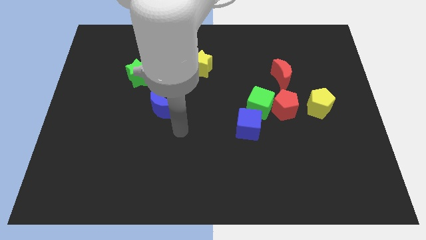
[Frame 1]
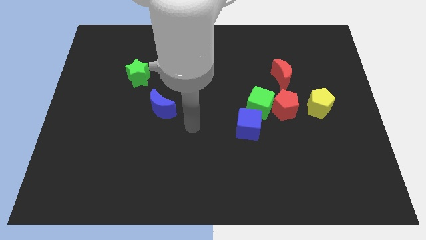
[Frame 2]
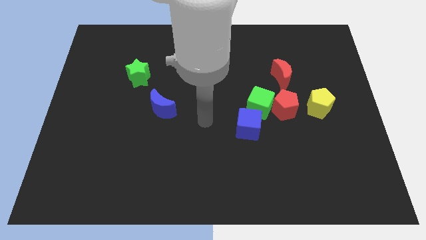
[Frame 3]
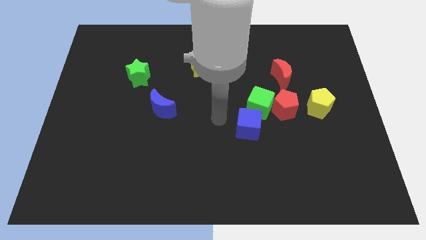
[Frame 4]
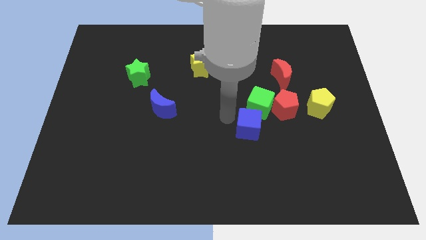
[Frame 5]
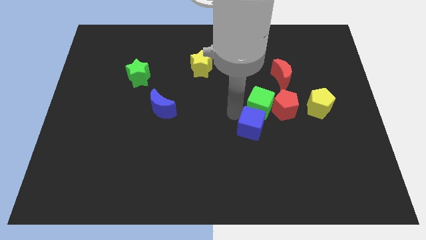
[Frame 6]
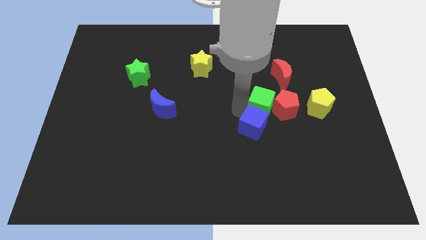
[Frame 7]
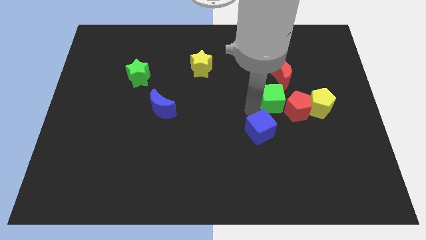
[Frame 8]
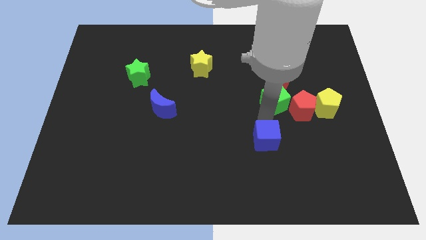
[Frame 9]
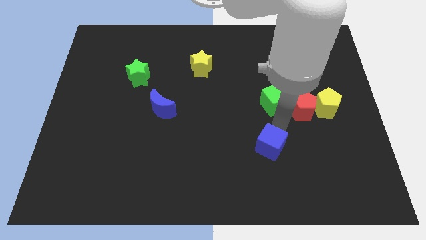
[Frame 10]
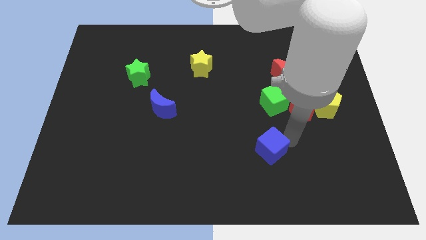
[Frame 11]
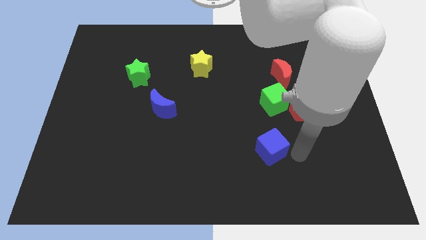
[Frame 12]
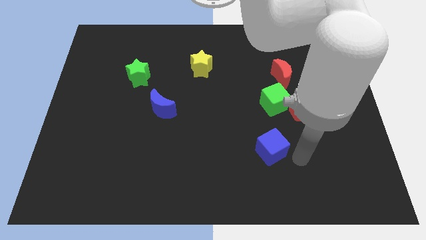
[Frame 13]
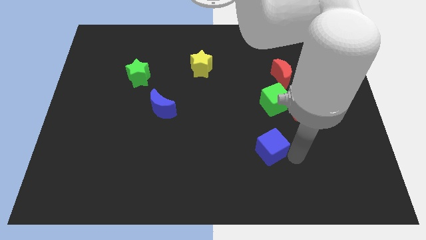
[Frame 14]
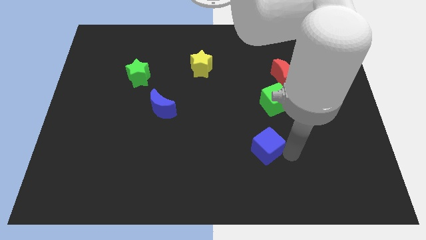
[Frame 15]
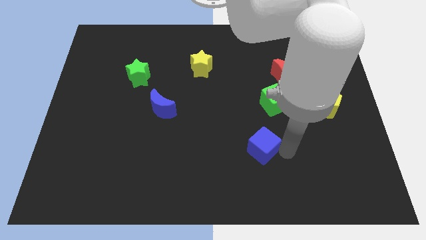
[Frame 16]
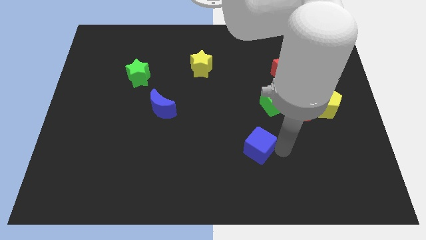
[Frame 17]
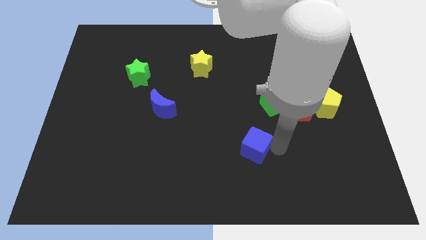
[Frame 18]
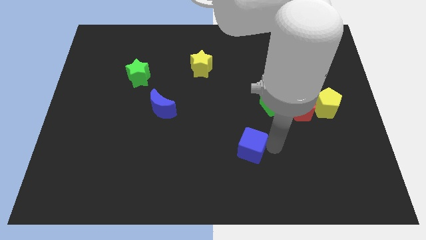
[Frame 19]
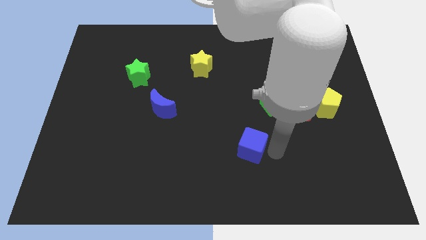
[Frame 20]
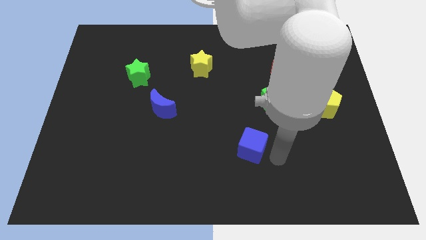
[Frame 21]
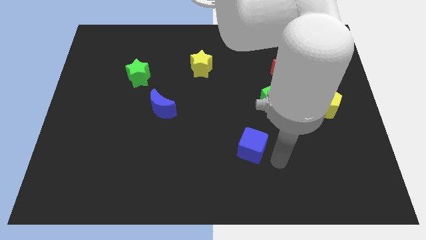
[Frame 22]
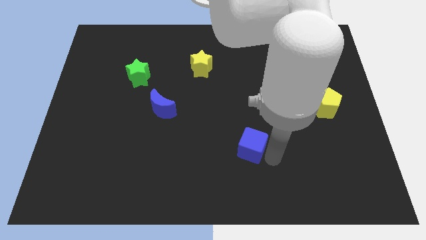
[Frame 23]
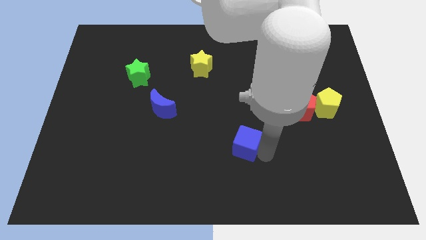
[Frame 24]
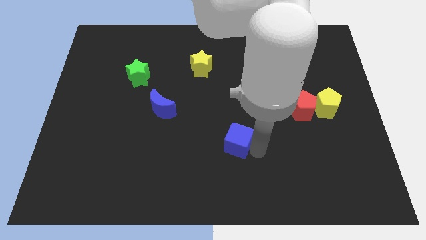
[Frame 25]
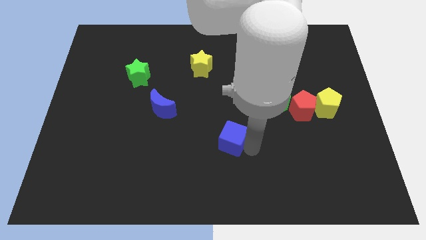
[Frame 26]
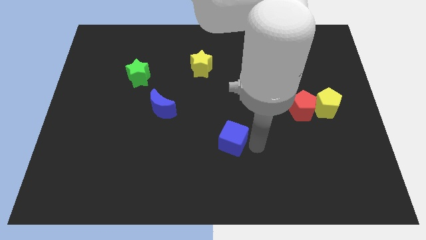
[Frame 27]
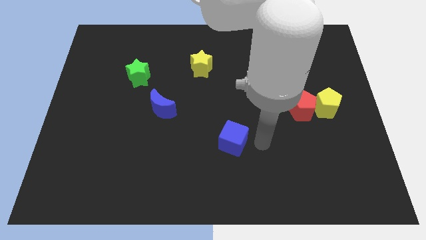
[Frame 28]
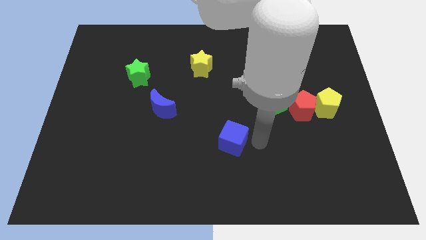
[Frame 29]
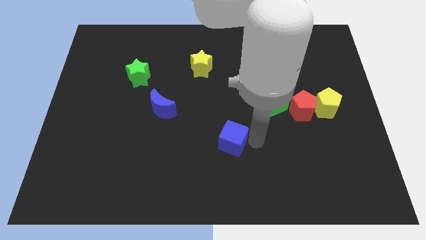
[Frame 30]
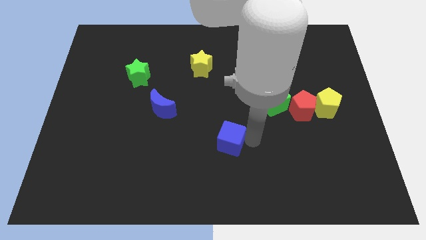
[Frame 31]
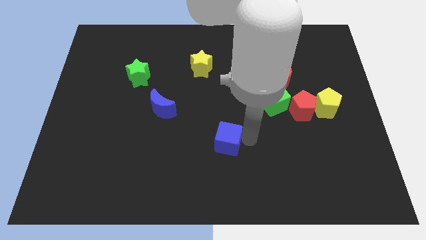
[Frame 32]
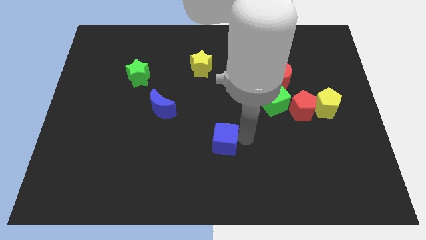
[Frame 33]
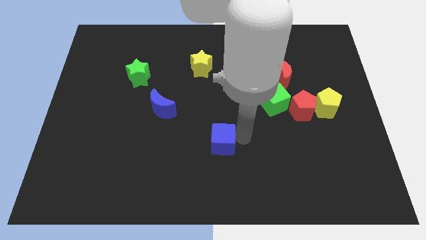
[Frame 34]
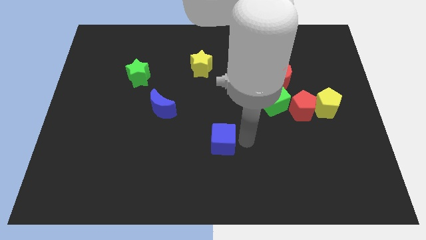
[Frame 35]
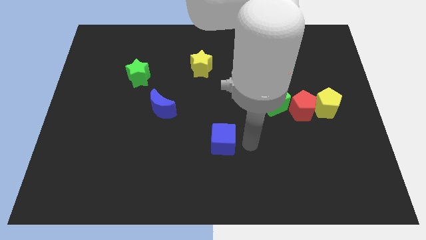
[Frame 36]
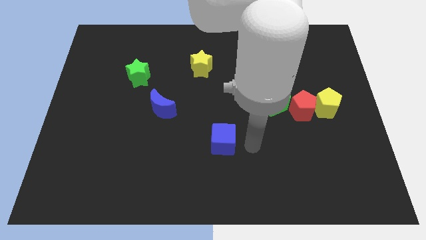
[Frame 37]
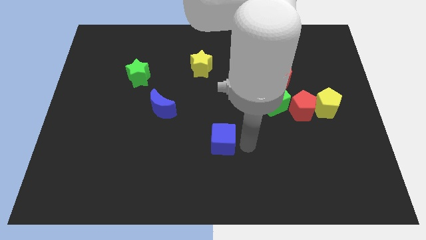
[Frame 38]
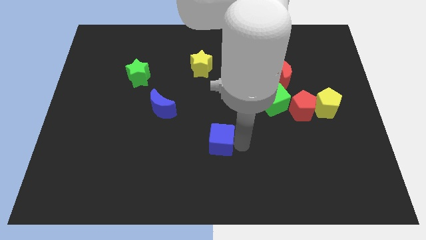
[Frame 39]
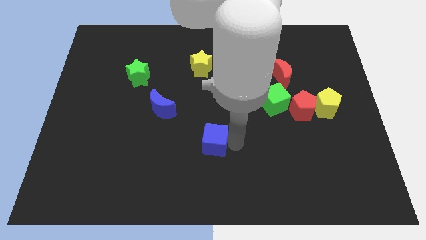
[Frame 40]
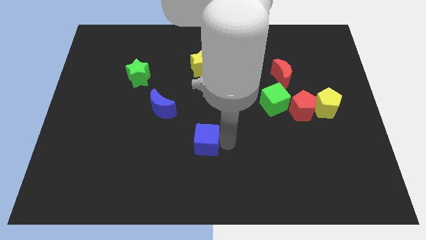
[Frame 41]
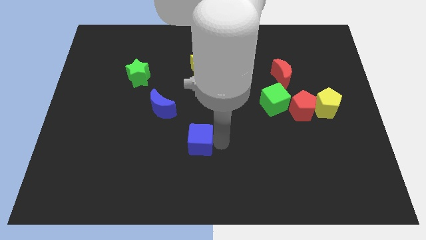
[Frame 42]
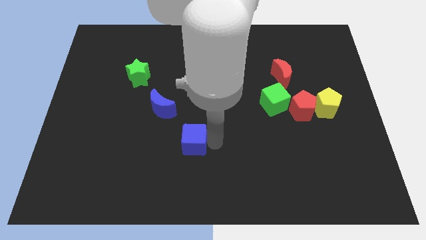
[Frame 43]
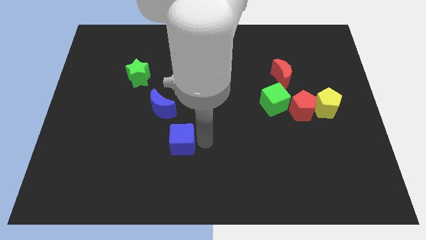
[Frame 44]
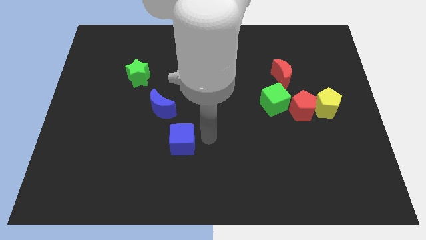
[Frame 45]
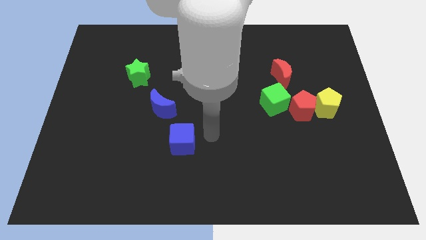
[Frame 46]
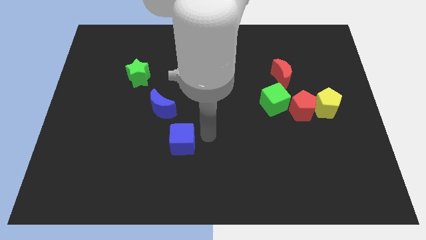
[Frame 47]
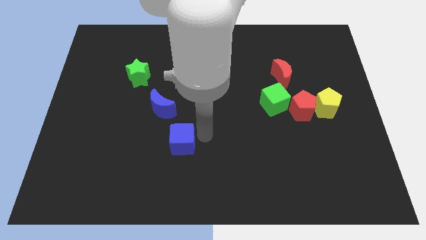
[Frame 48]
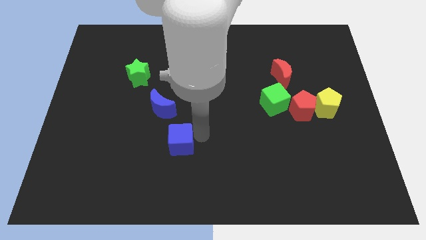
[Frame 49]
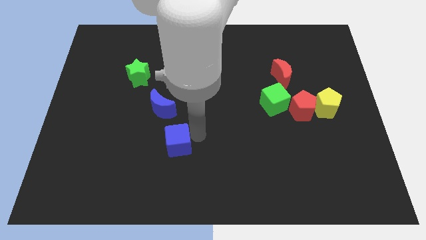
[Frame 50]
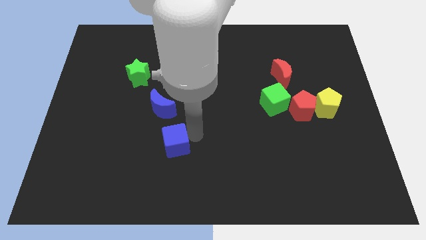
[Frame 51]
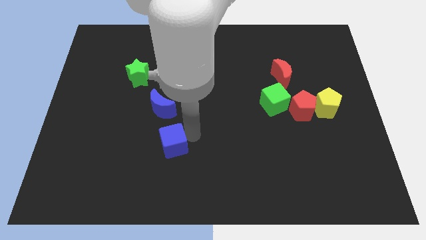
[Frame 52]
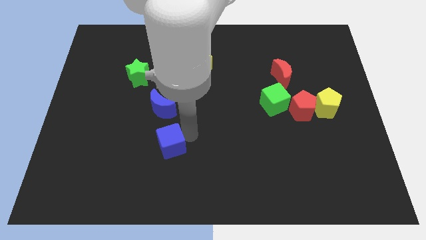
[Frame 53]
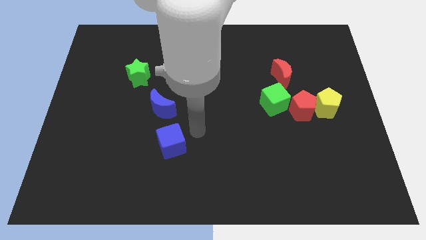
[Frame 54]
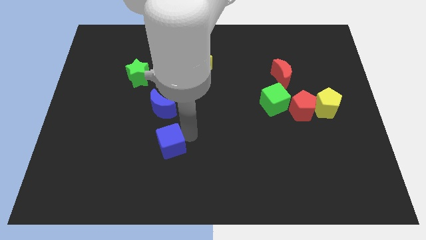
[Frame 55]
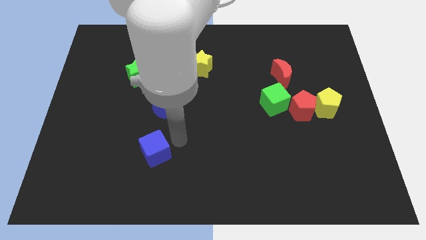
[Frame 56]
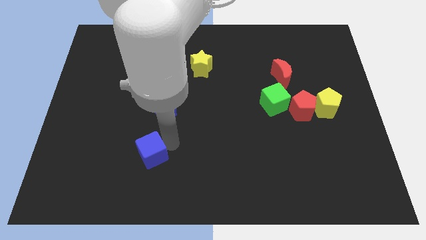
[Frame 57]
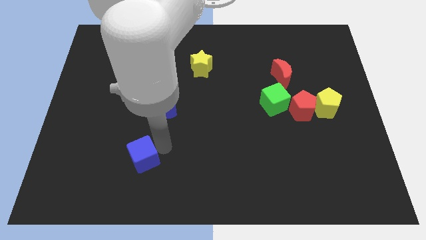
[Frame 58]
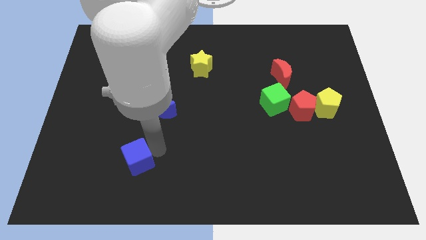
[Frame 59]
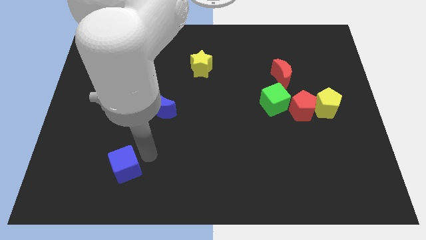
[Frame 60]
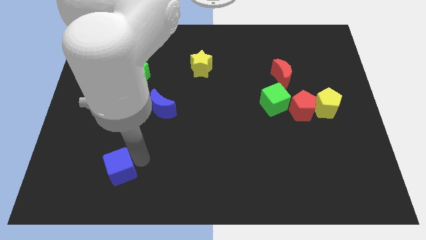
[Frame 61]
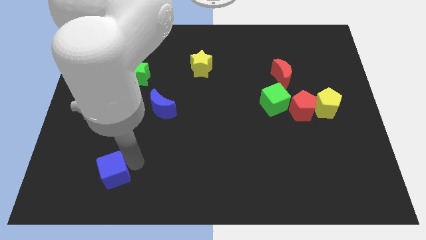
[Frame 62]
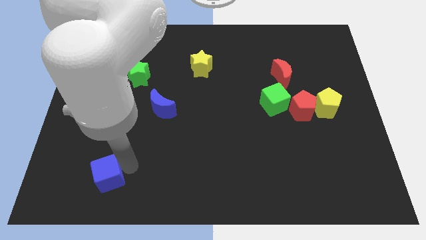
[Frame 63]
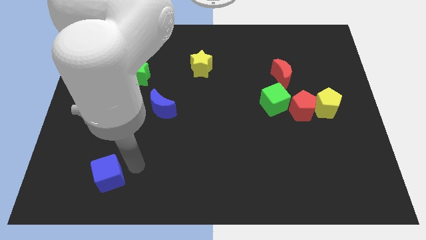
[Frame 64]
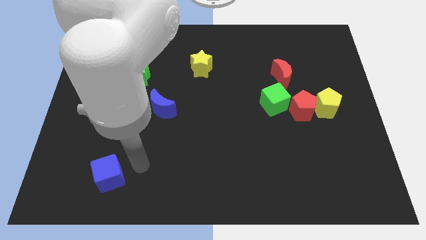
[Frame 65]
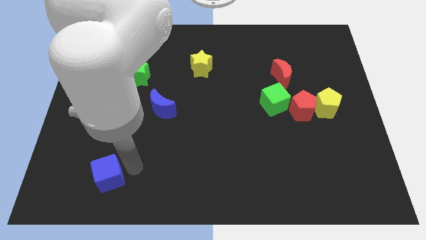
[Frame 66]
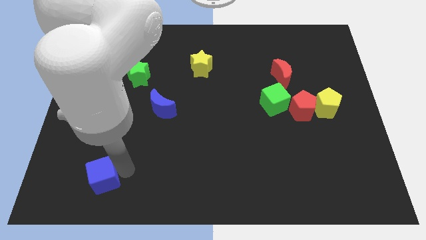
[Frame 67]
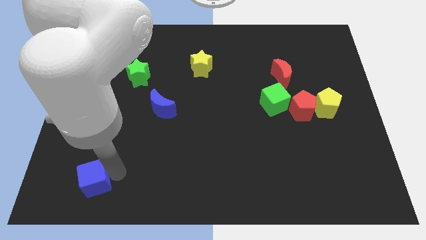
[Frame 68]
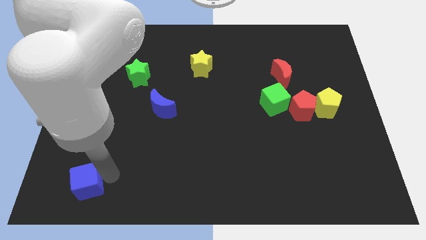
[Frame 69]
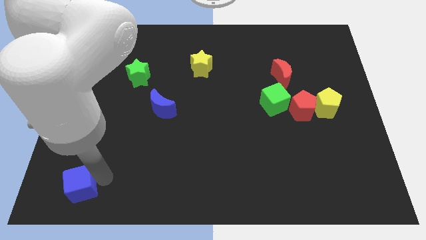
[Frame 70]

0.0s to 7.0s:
push the blue cube to the bottom left corner
